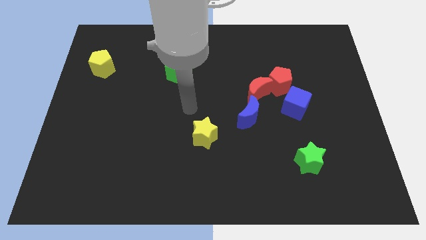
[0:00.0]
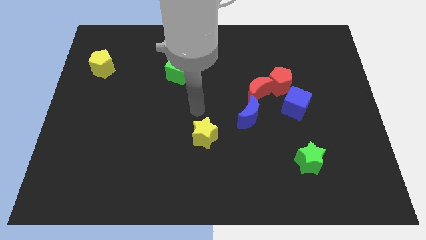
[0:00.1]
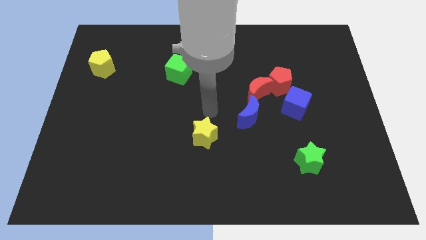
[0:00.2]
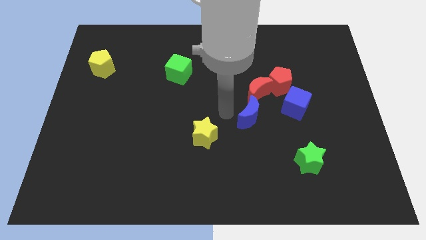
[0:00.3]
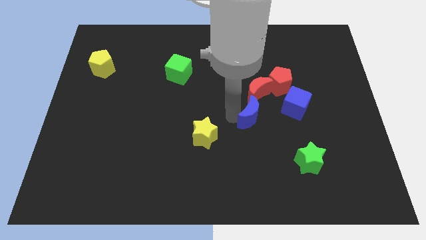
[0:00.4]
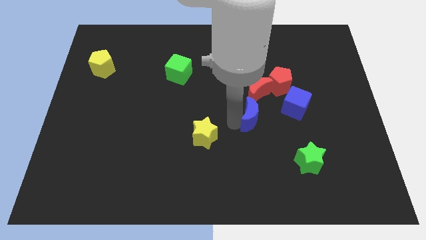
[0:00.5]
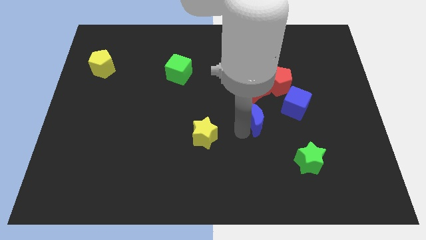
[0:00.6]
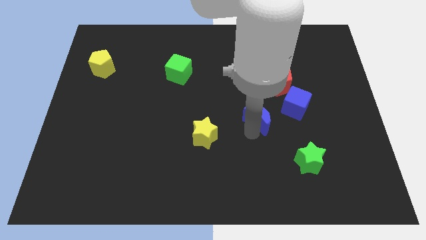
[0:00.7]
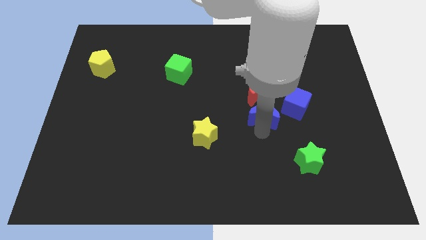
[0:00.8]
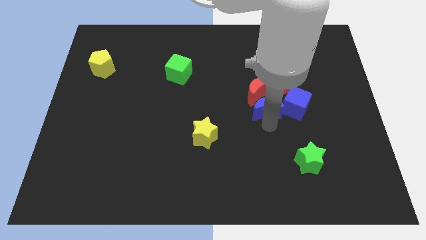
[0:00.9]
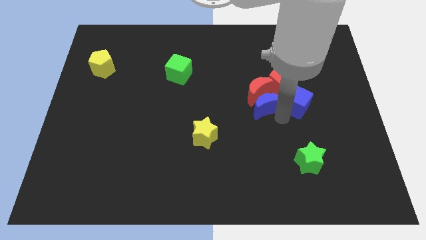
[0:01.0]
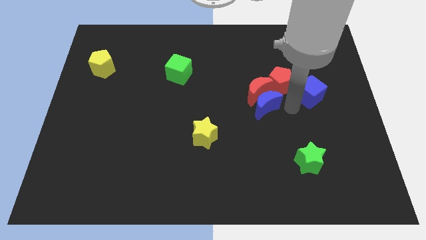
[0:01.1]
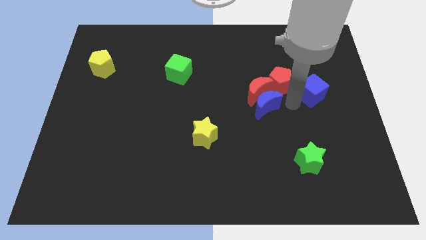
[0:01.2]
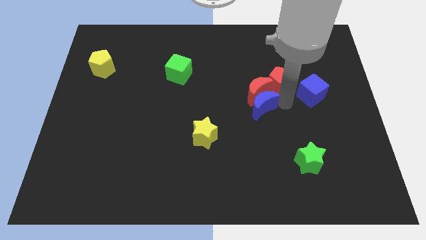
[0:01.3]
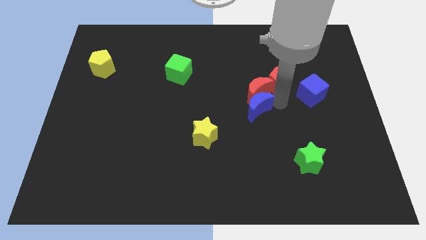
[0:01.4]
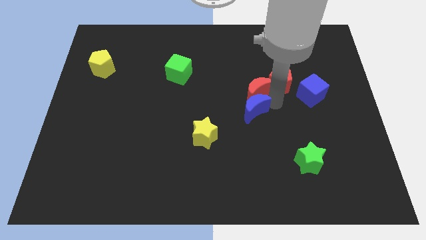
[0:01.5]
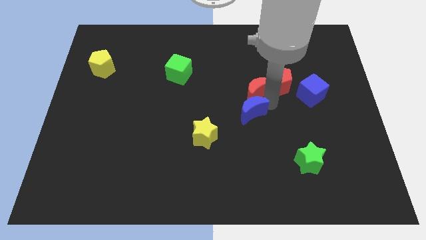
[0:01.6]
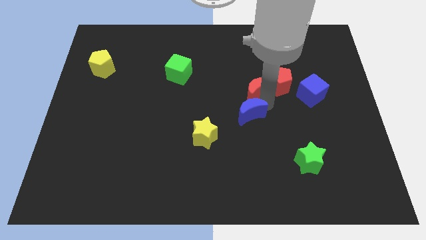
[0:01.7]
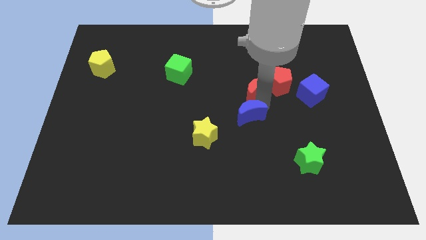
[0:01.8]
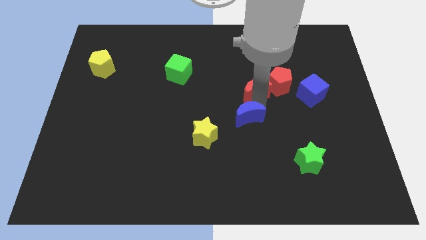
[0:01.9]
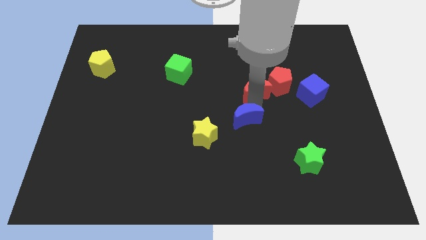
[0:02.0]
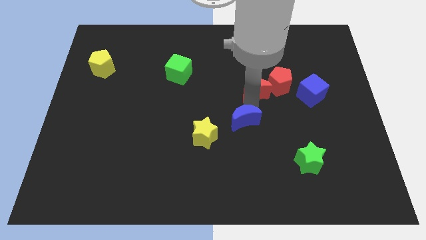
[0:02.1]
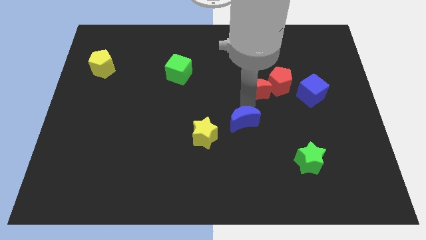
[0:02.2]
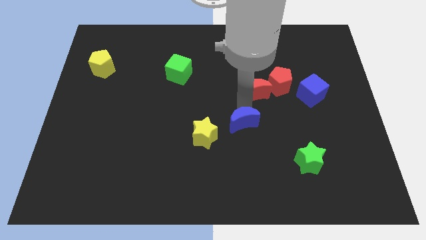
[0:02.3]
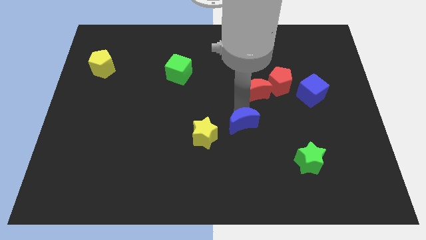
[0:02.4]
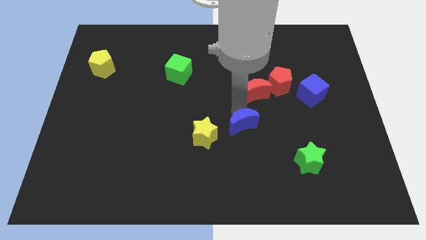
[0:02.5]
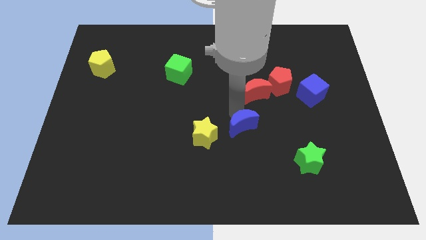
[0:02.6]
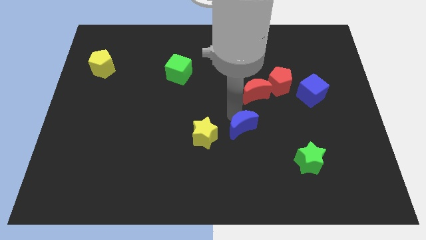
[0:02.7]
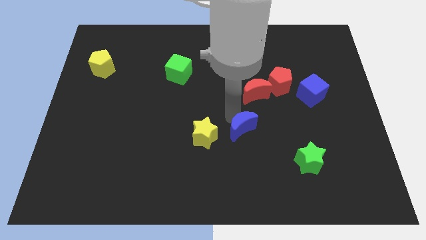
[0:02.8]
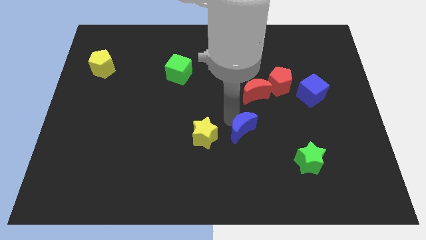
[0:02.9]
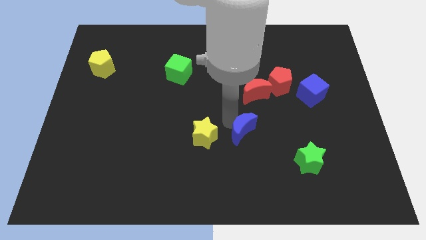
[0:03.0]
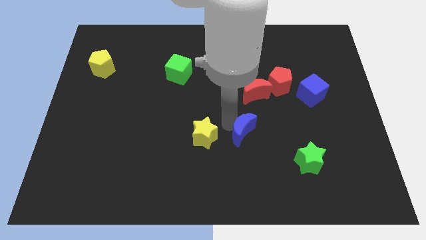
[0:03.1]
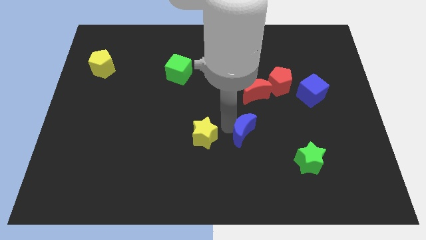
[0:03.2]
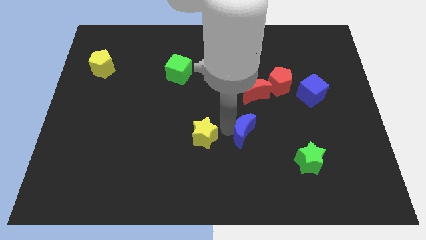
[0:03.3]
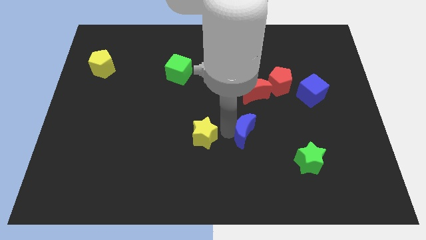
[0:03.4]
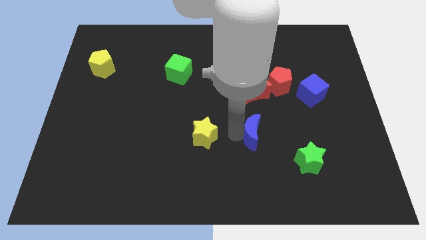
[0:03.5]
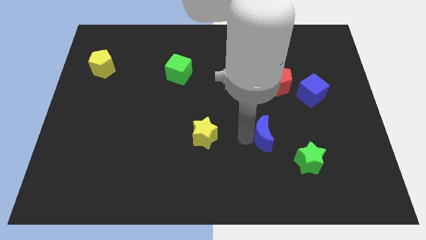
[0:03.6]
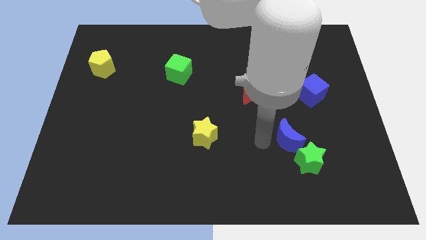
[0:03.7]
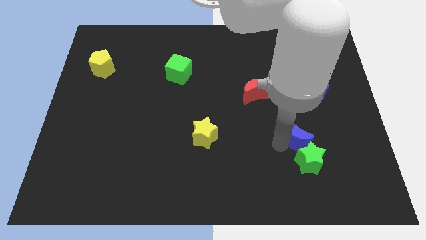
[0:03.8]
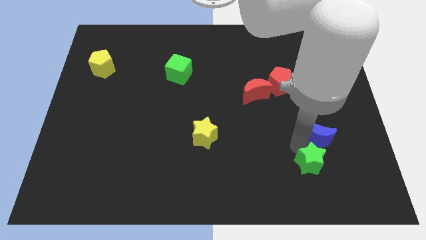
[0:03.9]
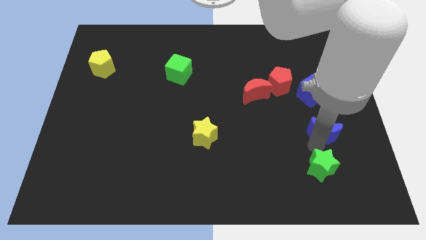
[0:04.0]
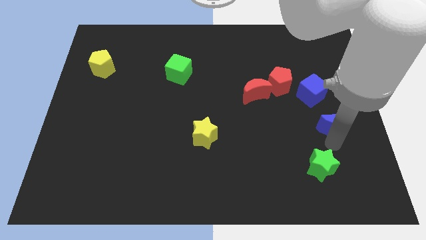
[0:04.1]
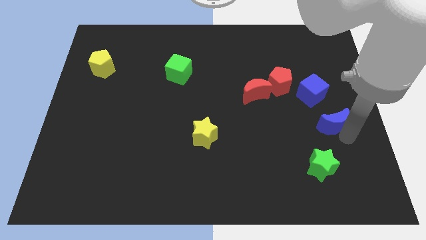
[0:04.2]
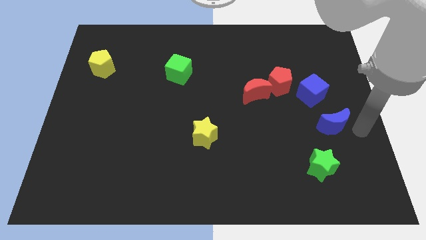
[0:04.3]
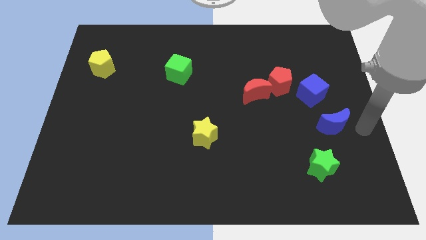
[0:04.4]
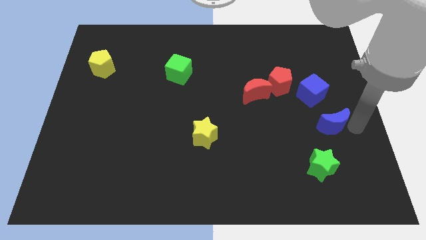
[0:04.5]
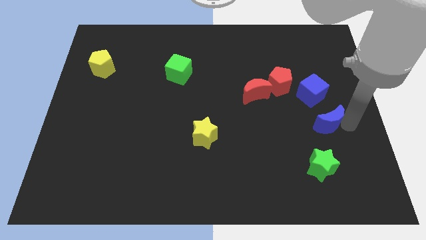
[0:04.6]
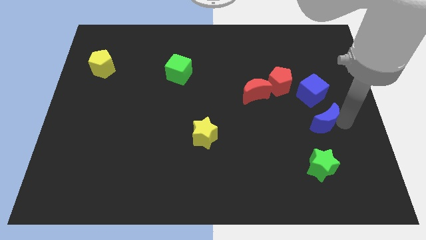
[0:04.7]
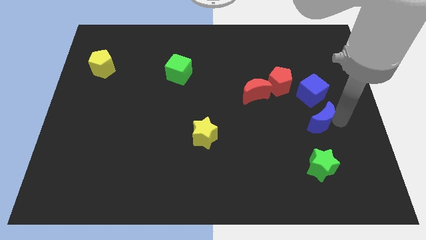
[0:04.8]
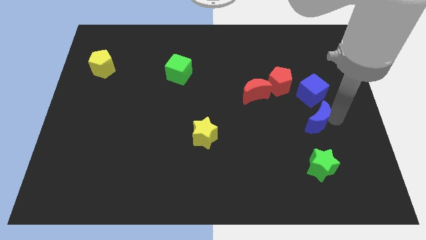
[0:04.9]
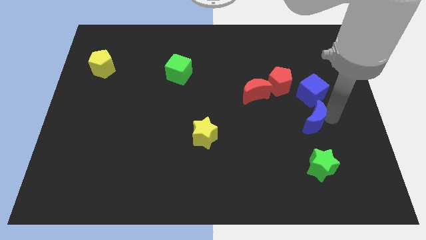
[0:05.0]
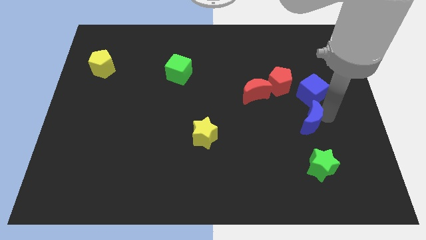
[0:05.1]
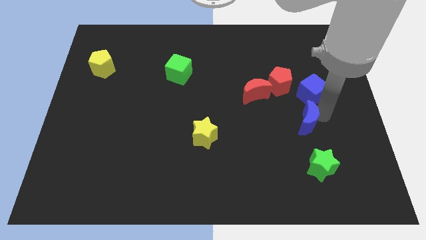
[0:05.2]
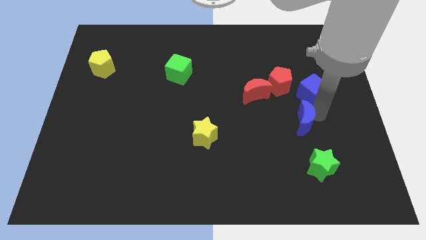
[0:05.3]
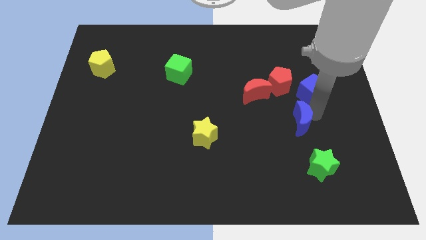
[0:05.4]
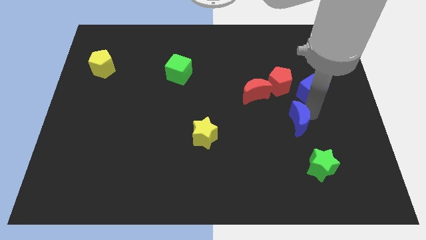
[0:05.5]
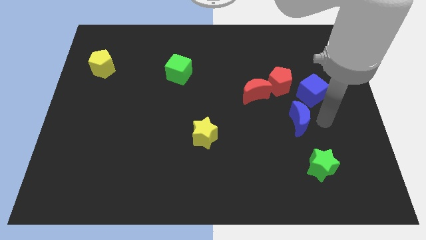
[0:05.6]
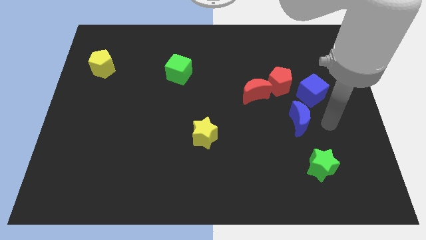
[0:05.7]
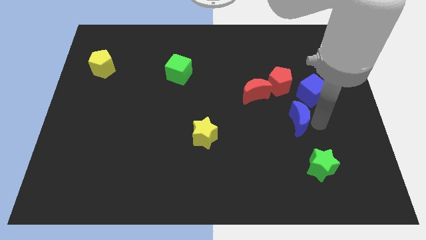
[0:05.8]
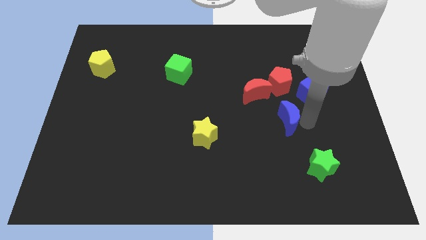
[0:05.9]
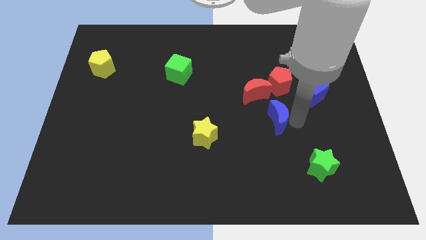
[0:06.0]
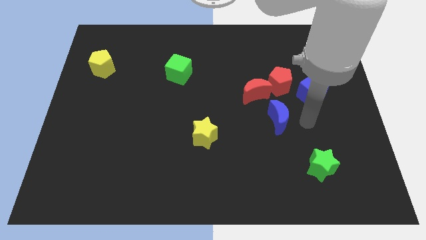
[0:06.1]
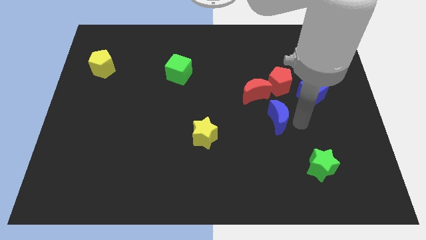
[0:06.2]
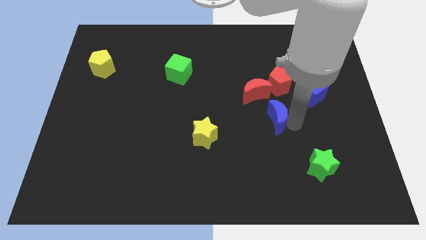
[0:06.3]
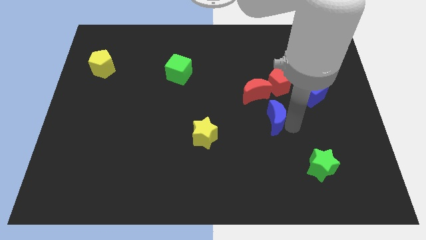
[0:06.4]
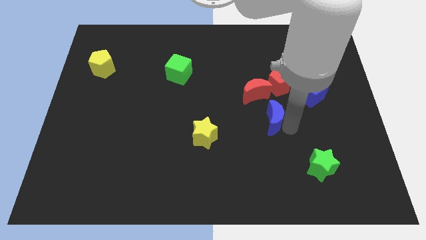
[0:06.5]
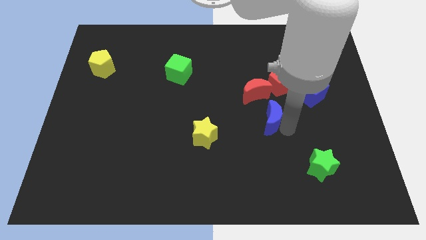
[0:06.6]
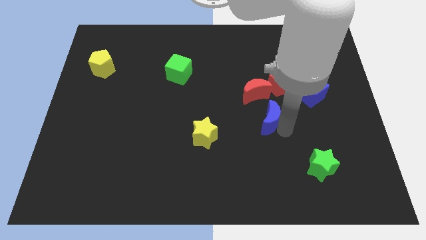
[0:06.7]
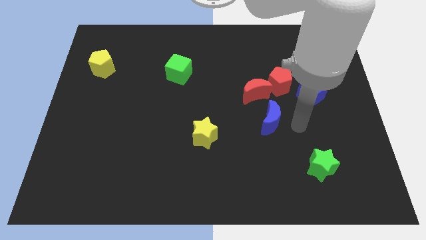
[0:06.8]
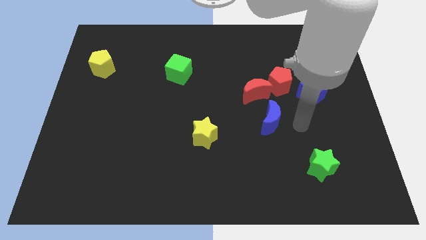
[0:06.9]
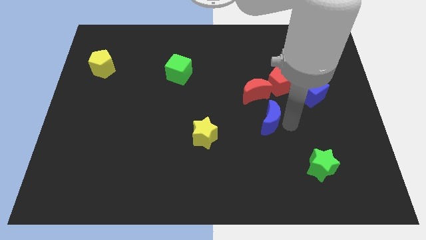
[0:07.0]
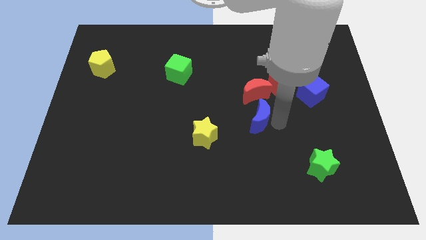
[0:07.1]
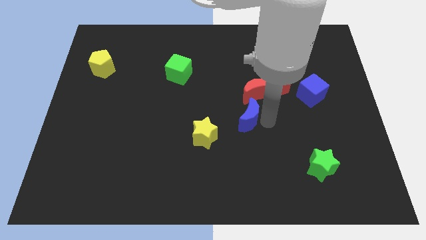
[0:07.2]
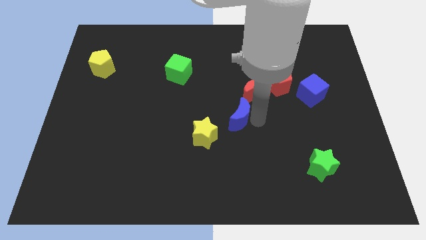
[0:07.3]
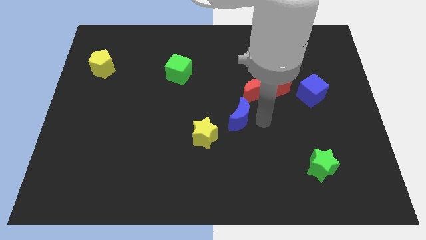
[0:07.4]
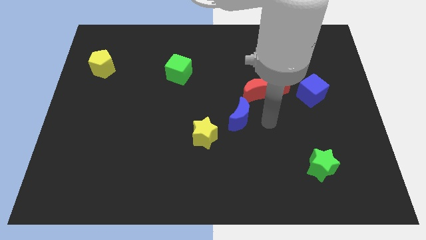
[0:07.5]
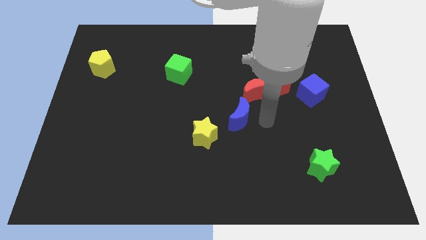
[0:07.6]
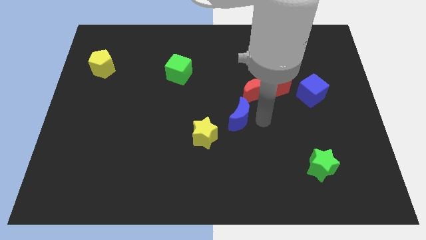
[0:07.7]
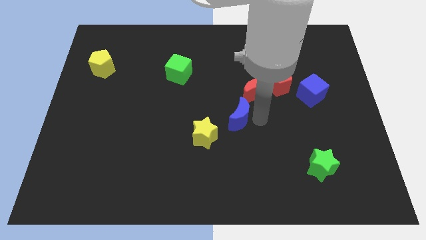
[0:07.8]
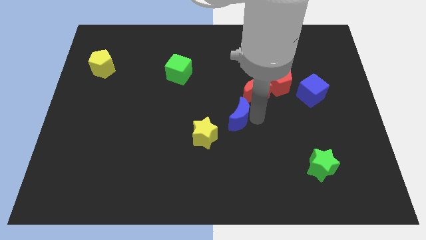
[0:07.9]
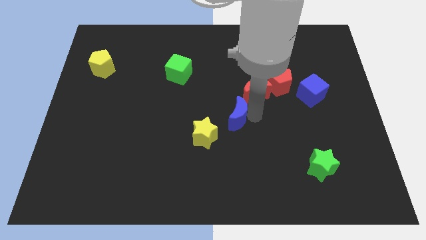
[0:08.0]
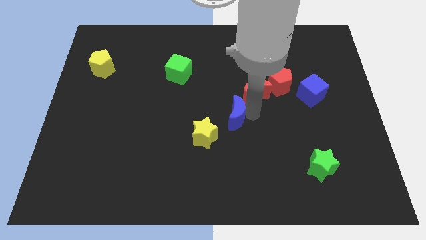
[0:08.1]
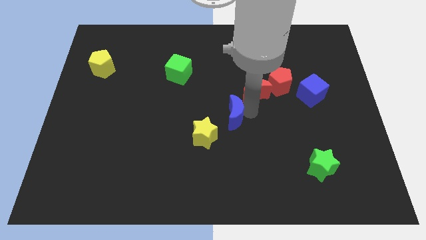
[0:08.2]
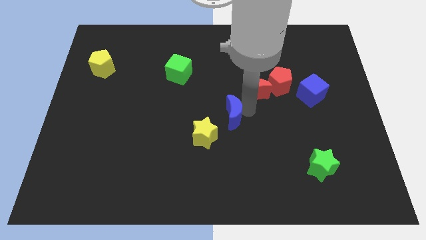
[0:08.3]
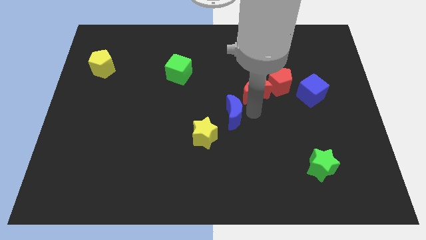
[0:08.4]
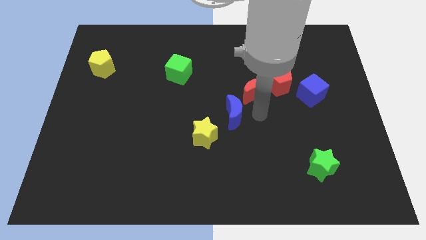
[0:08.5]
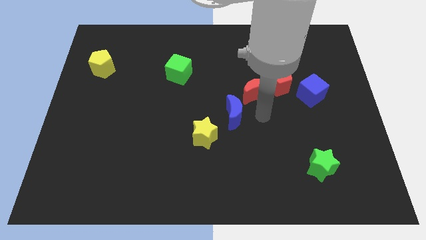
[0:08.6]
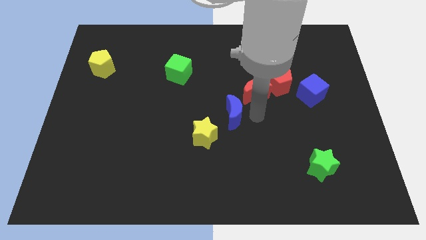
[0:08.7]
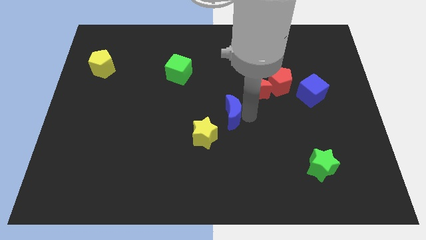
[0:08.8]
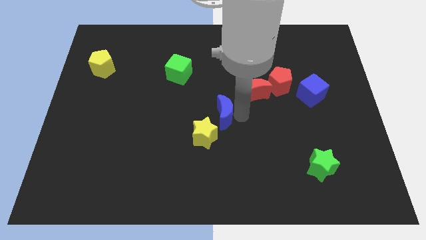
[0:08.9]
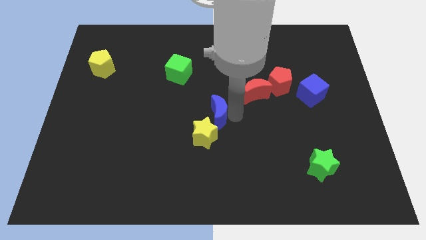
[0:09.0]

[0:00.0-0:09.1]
slightly move the blue moon to the left
